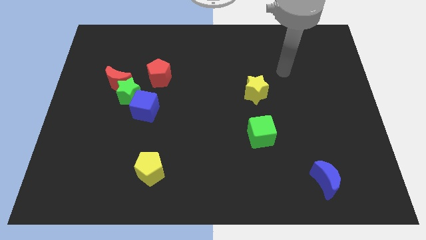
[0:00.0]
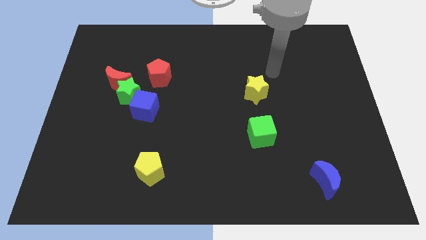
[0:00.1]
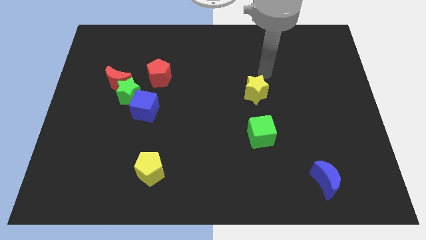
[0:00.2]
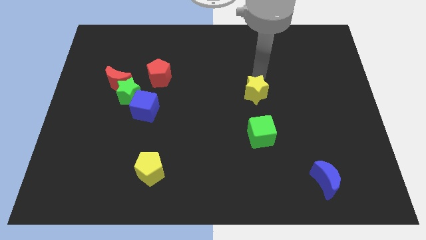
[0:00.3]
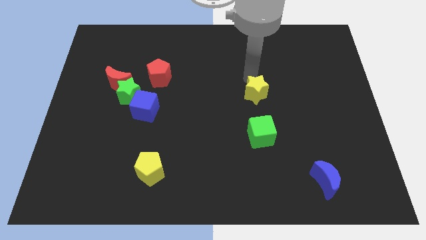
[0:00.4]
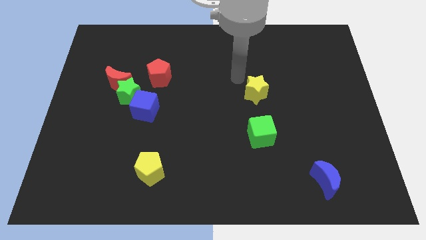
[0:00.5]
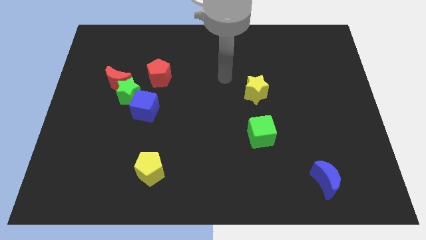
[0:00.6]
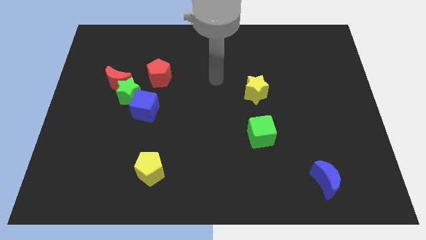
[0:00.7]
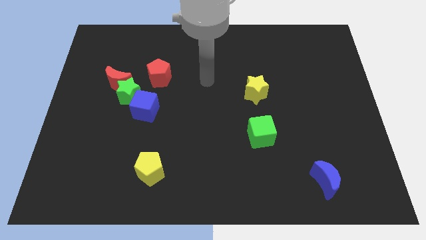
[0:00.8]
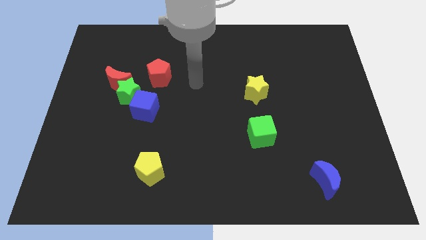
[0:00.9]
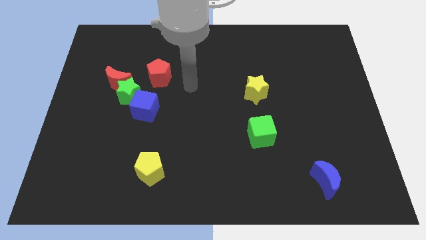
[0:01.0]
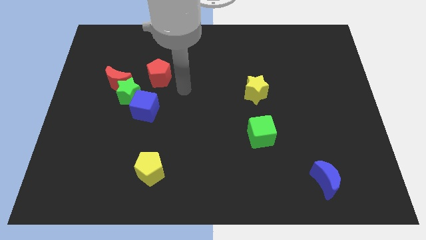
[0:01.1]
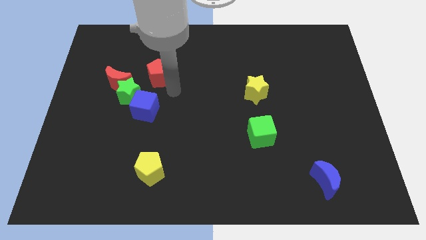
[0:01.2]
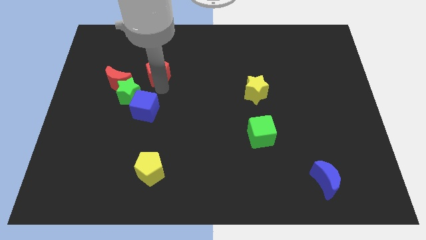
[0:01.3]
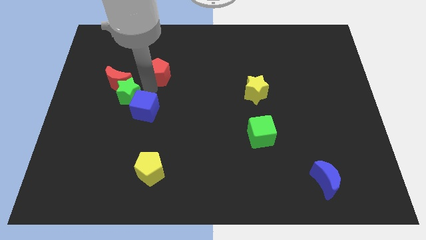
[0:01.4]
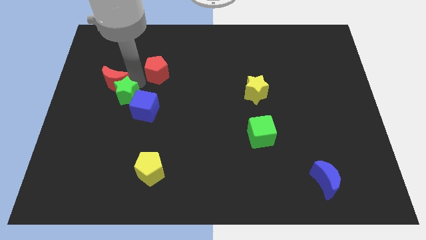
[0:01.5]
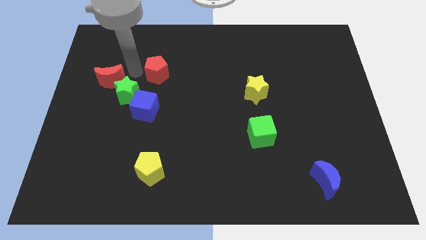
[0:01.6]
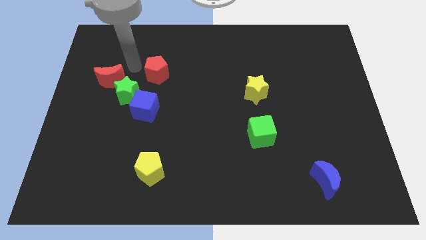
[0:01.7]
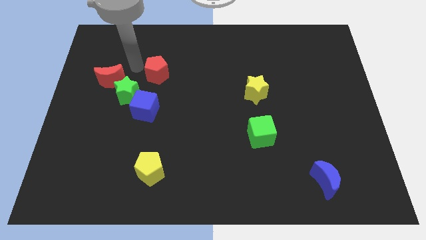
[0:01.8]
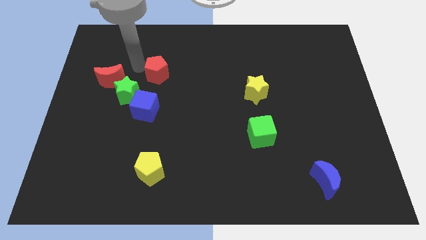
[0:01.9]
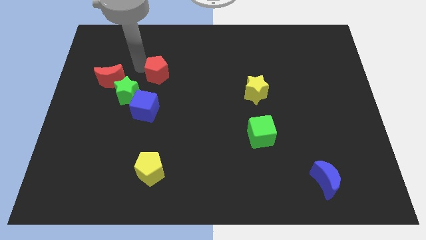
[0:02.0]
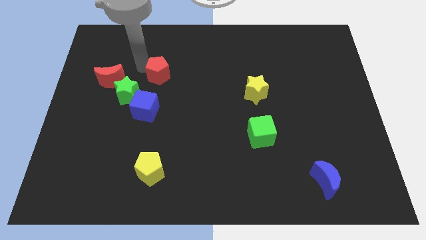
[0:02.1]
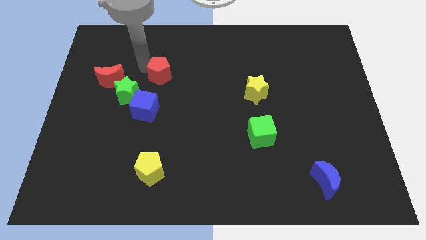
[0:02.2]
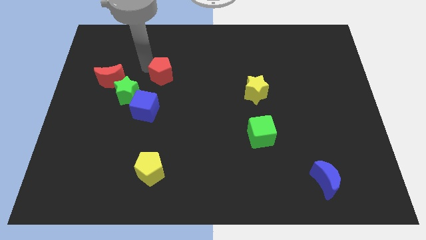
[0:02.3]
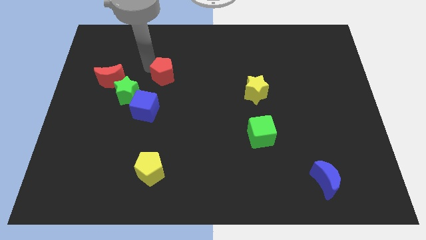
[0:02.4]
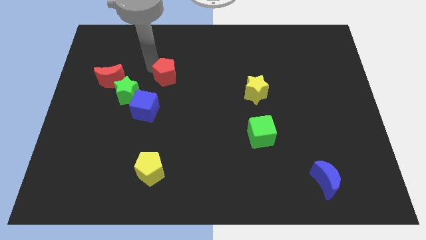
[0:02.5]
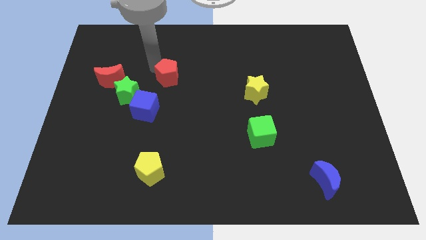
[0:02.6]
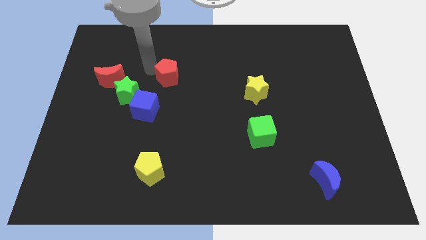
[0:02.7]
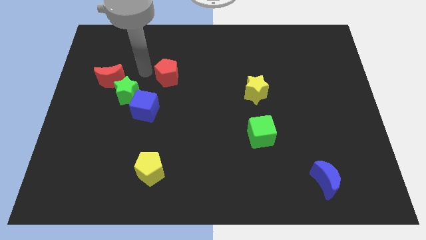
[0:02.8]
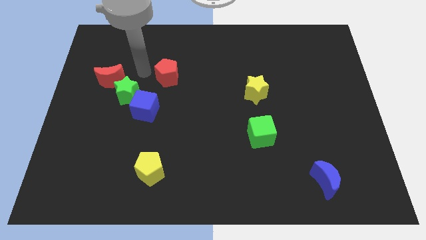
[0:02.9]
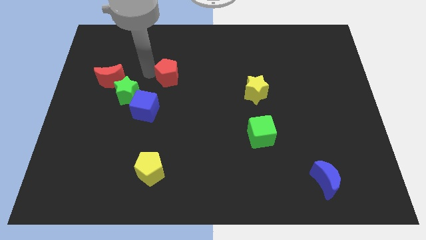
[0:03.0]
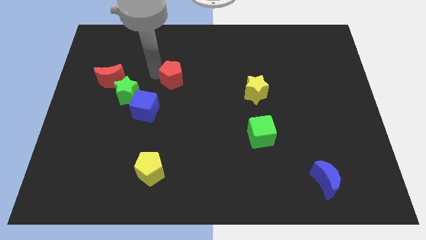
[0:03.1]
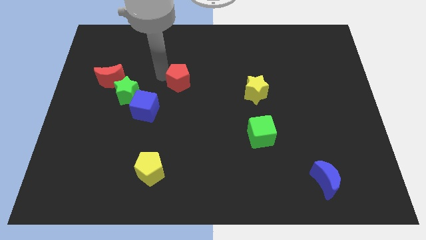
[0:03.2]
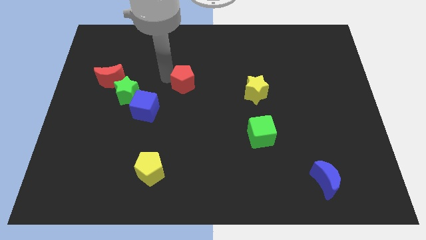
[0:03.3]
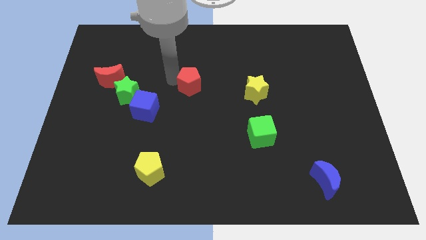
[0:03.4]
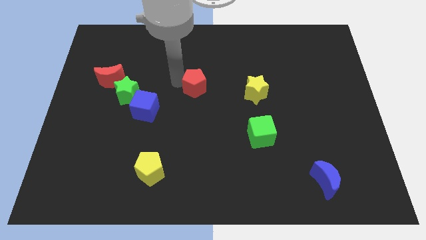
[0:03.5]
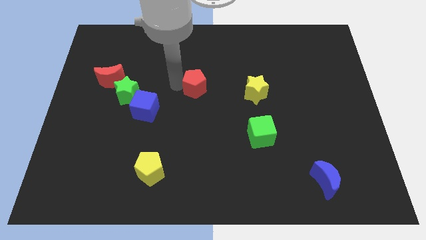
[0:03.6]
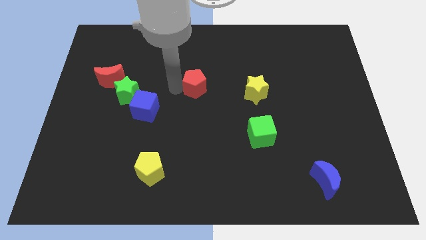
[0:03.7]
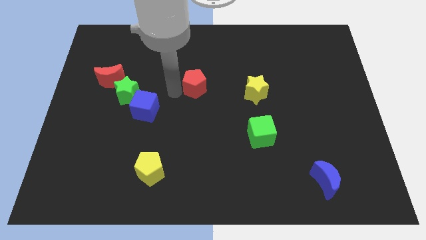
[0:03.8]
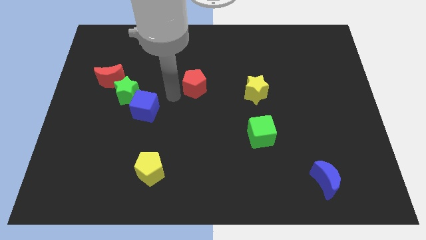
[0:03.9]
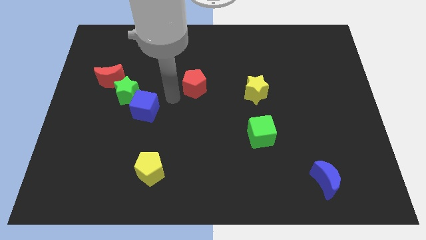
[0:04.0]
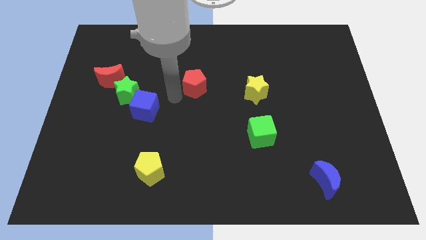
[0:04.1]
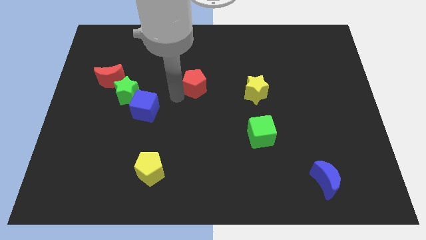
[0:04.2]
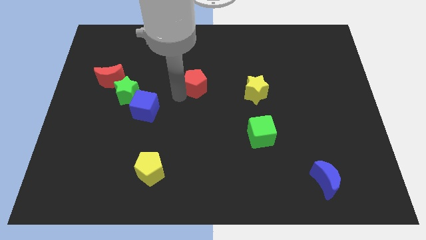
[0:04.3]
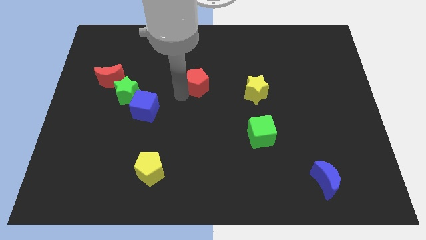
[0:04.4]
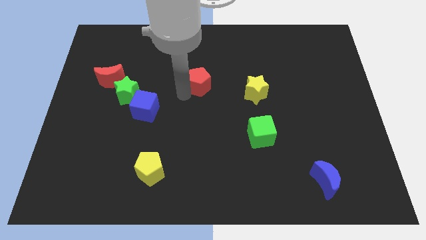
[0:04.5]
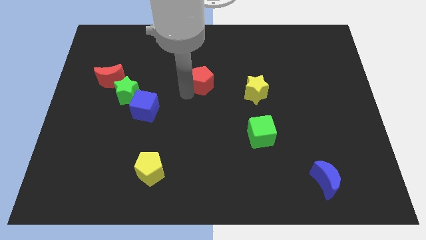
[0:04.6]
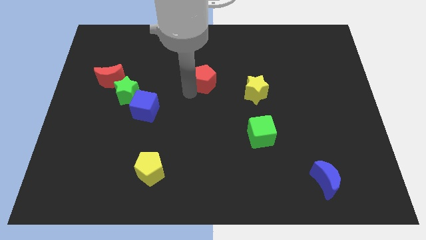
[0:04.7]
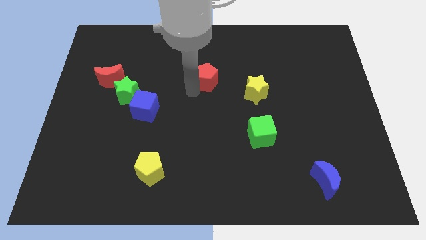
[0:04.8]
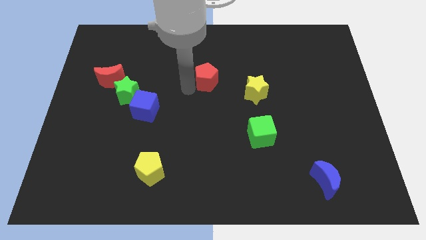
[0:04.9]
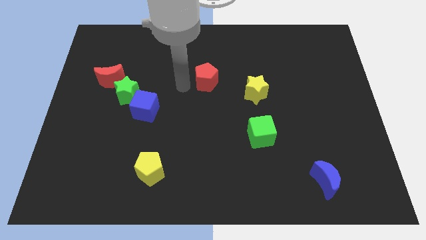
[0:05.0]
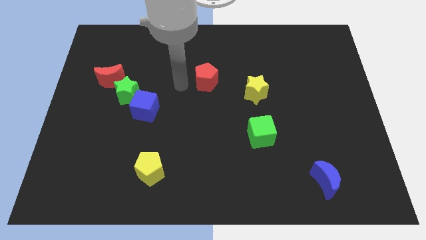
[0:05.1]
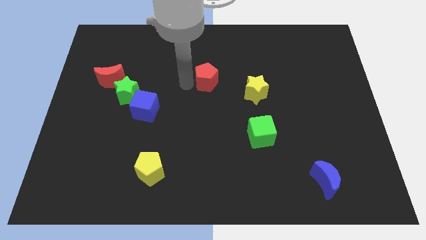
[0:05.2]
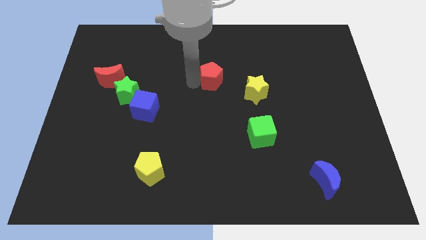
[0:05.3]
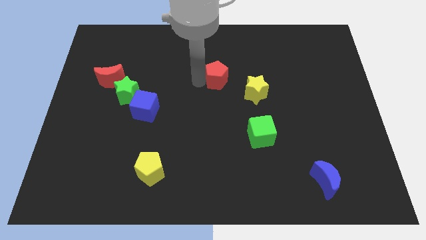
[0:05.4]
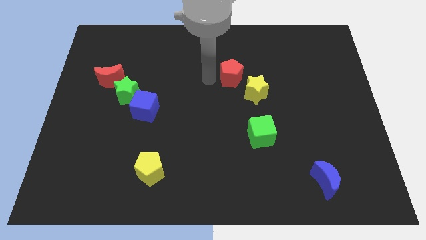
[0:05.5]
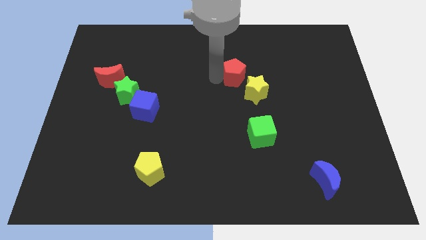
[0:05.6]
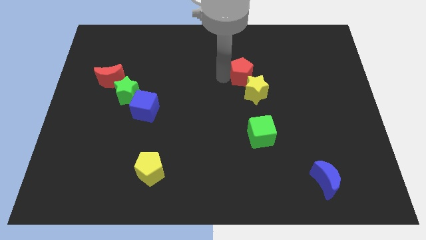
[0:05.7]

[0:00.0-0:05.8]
slide the red pentagon right

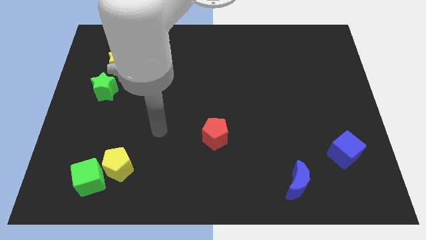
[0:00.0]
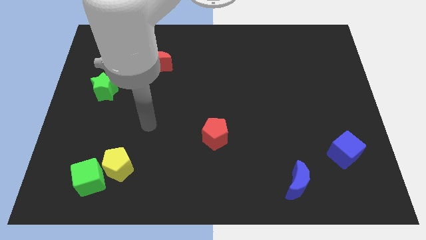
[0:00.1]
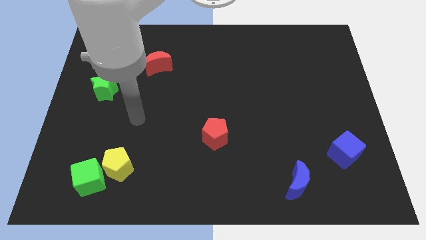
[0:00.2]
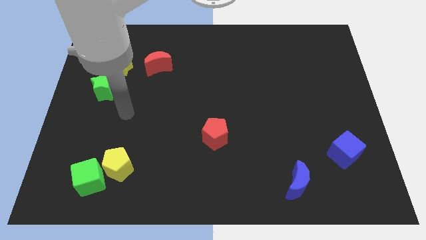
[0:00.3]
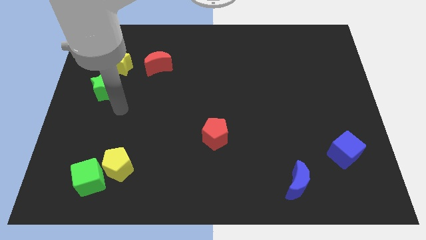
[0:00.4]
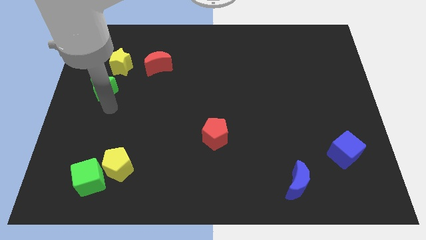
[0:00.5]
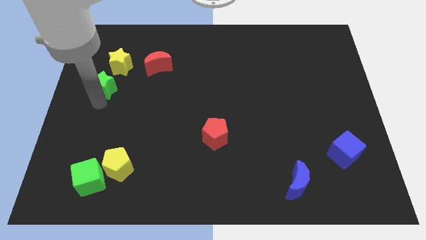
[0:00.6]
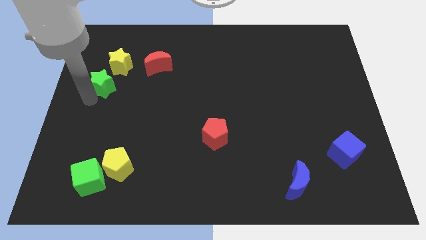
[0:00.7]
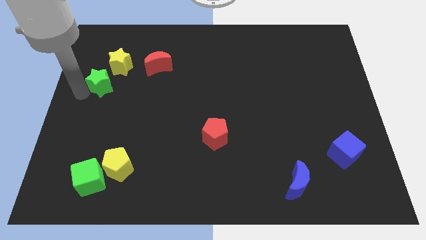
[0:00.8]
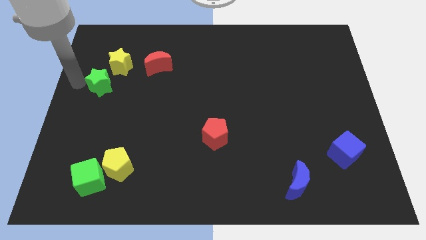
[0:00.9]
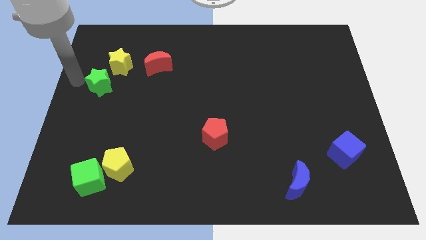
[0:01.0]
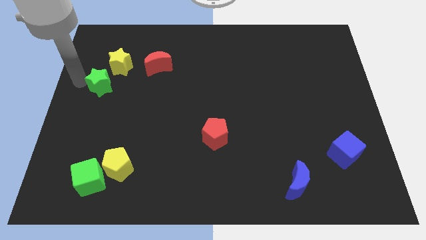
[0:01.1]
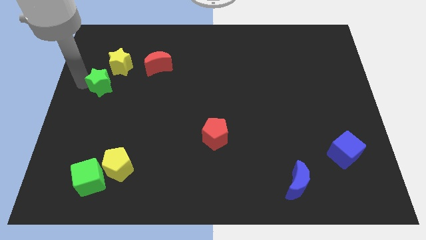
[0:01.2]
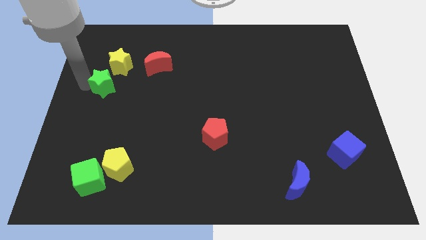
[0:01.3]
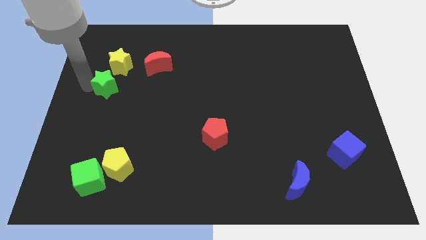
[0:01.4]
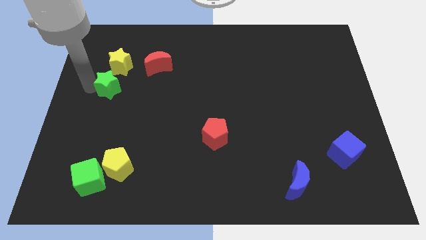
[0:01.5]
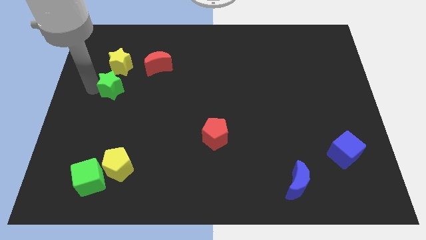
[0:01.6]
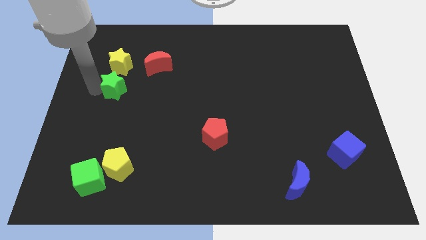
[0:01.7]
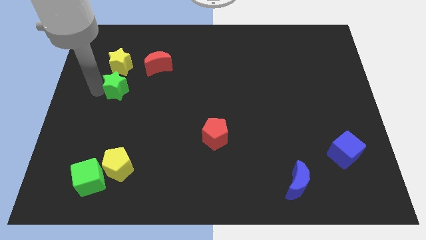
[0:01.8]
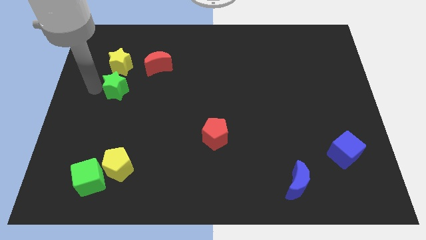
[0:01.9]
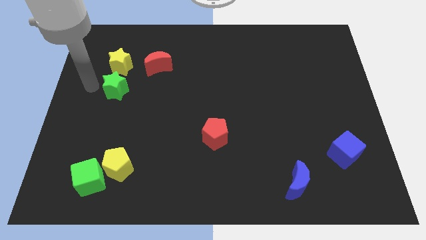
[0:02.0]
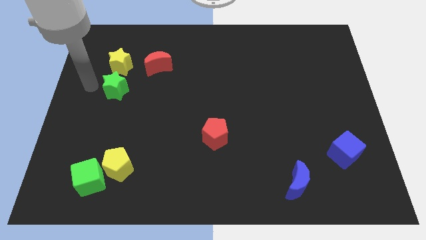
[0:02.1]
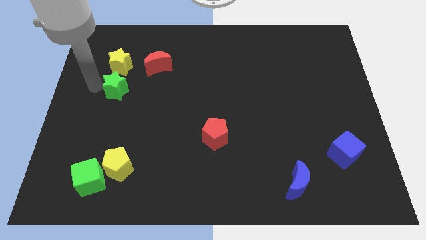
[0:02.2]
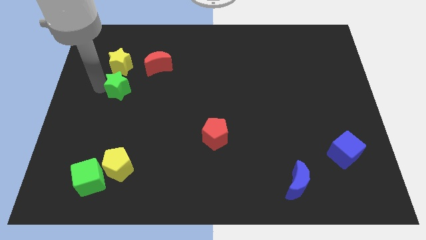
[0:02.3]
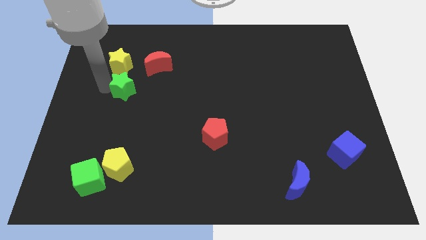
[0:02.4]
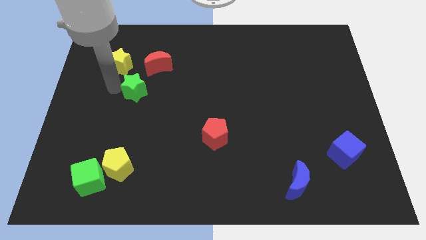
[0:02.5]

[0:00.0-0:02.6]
slightly push the green star right
